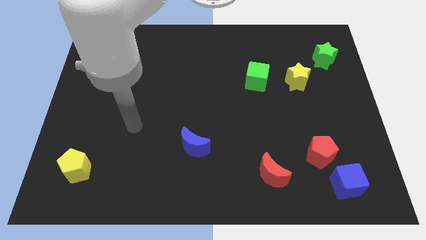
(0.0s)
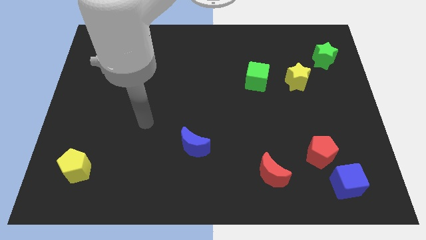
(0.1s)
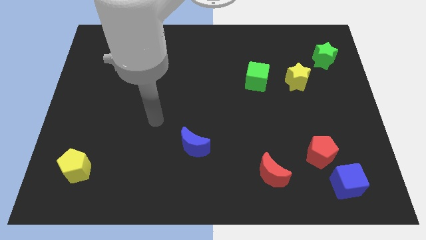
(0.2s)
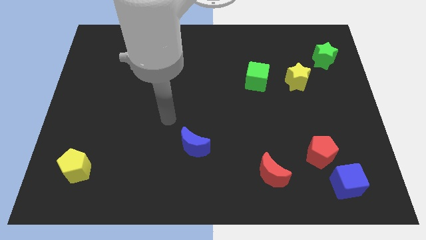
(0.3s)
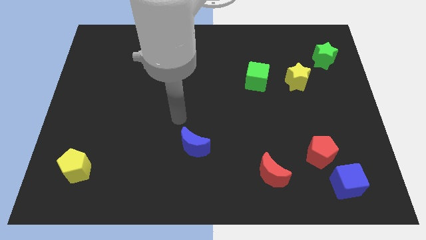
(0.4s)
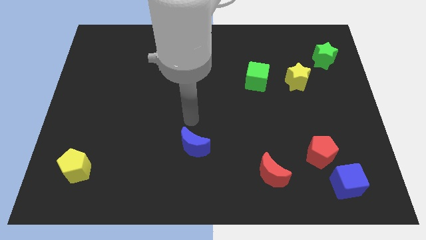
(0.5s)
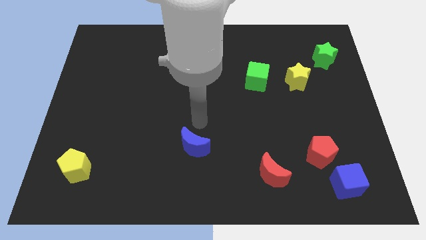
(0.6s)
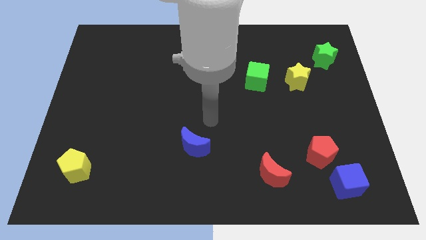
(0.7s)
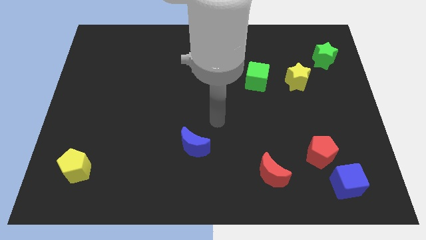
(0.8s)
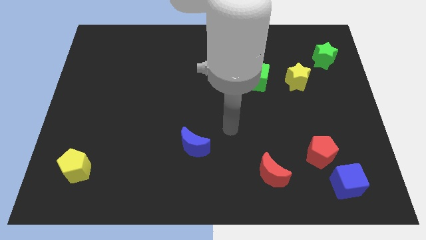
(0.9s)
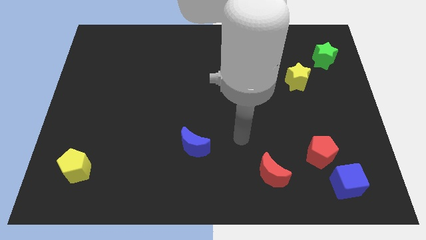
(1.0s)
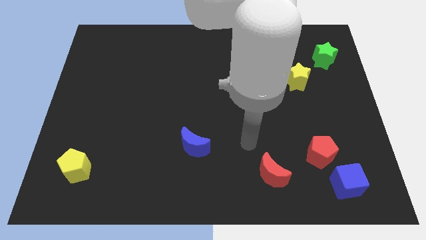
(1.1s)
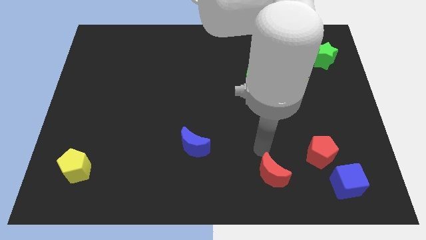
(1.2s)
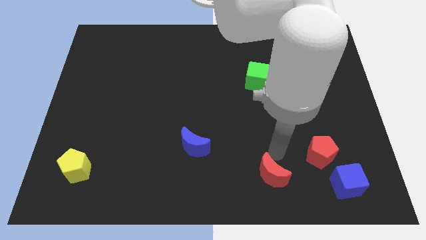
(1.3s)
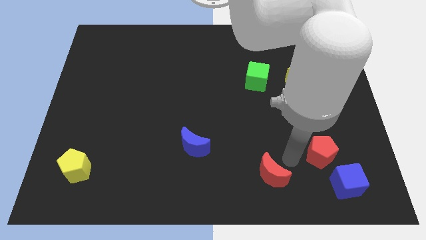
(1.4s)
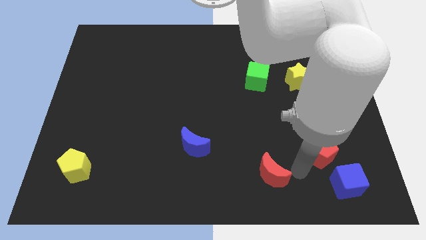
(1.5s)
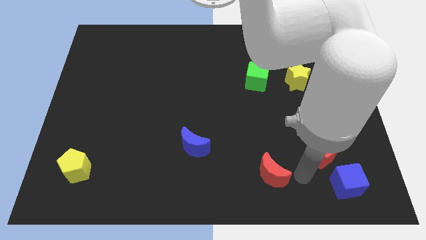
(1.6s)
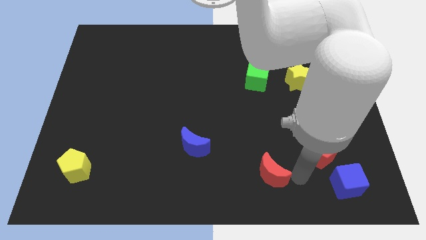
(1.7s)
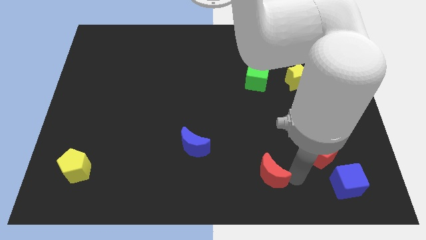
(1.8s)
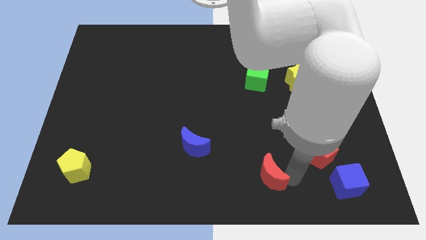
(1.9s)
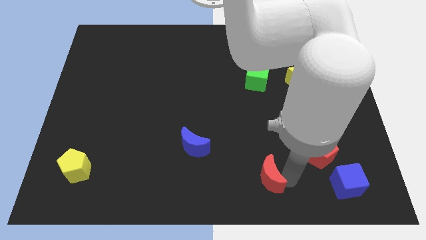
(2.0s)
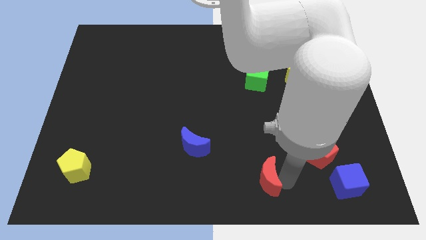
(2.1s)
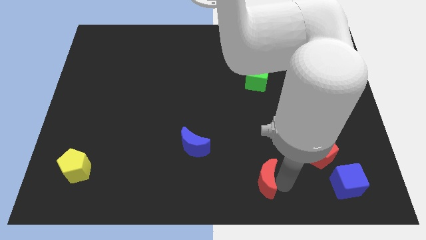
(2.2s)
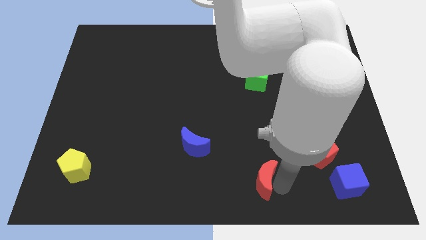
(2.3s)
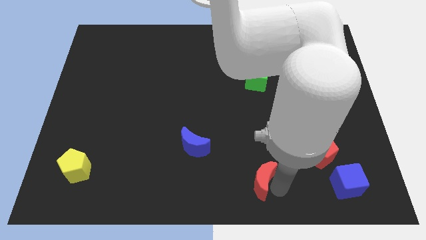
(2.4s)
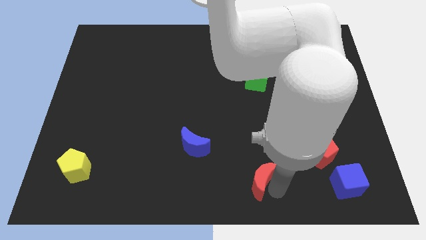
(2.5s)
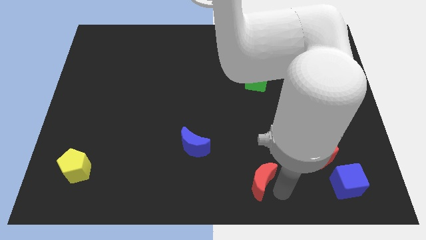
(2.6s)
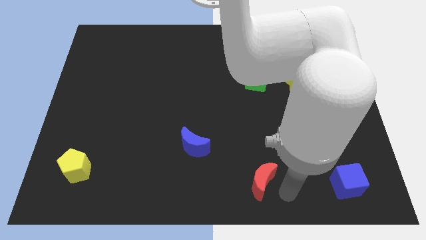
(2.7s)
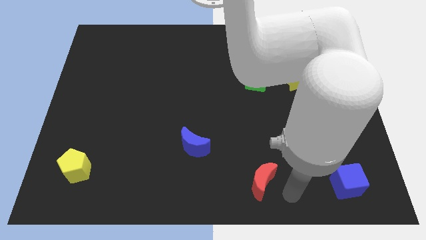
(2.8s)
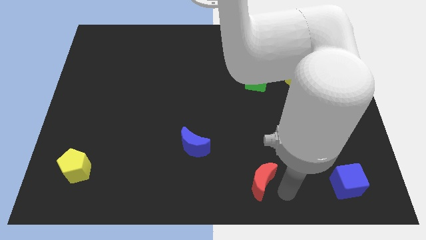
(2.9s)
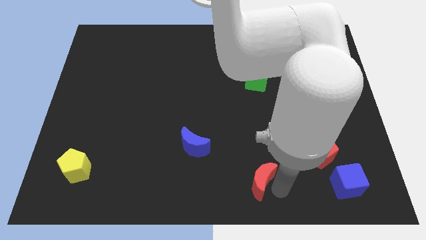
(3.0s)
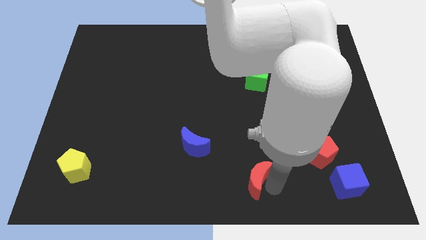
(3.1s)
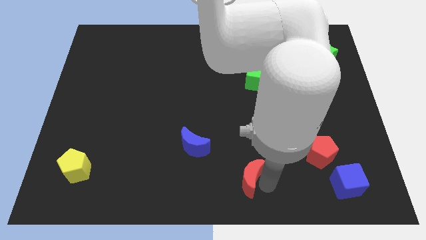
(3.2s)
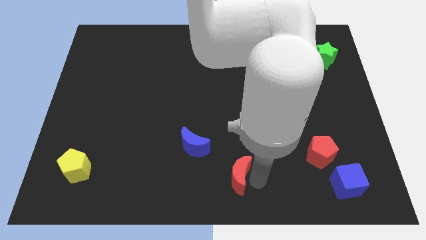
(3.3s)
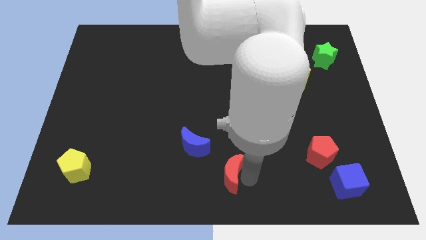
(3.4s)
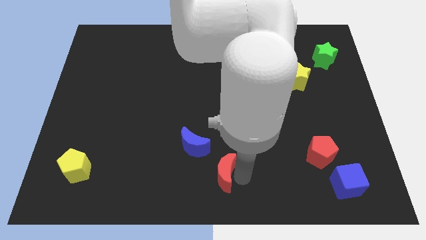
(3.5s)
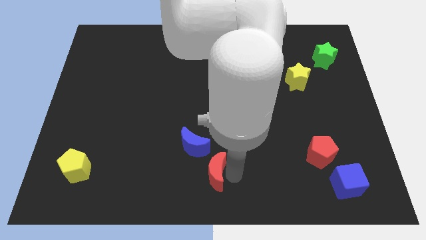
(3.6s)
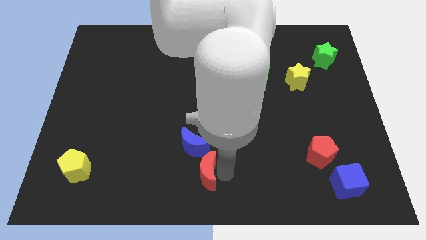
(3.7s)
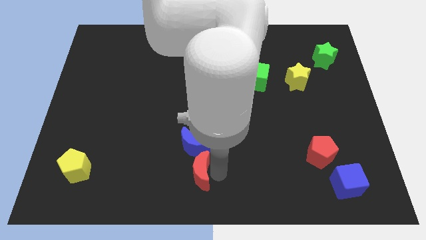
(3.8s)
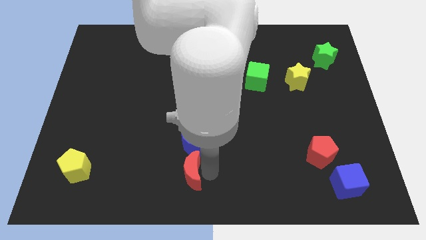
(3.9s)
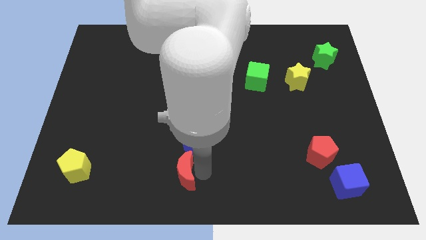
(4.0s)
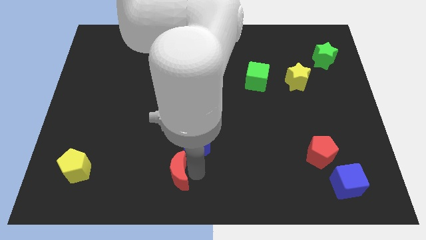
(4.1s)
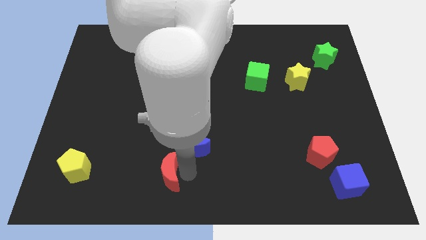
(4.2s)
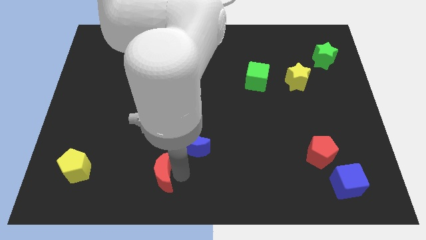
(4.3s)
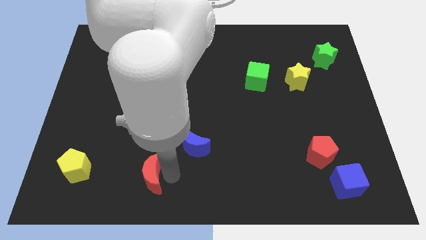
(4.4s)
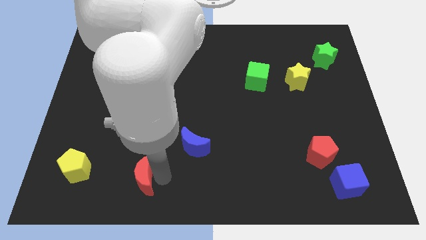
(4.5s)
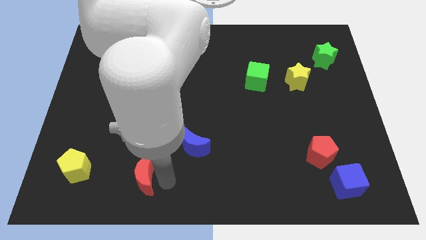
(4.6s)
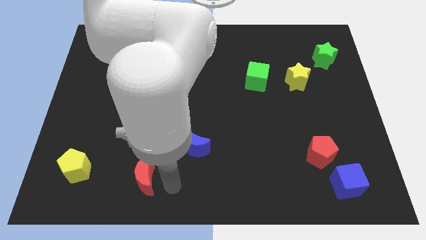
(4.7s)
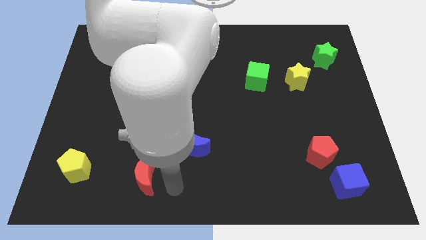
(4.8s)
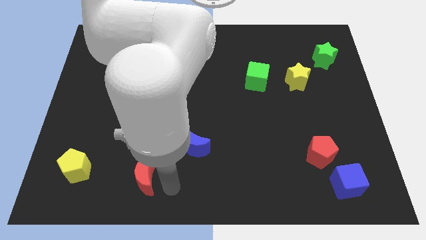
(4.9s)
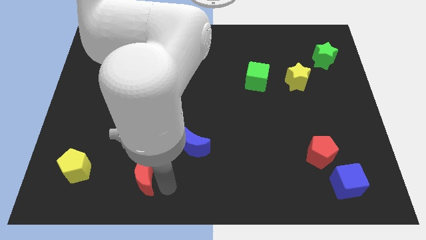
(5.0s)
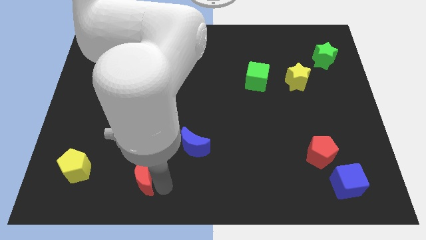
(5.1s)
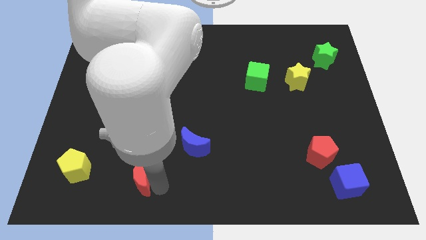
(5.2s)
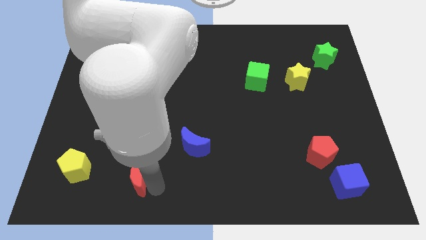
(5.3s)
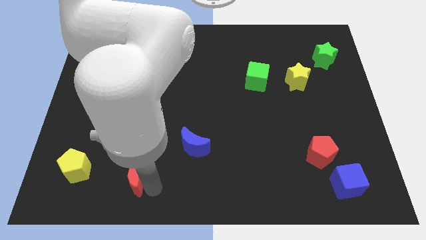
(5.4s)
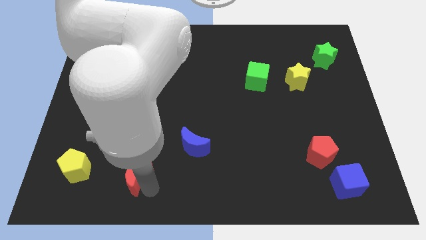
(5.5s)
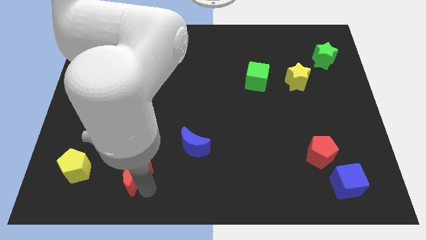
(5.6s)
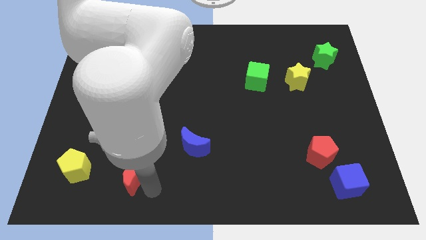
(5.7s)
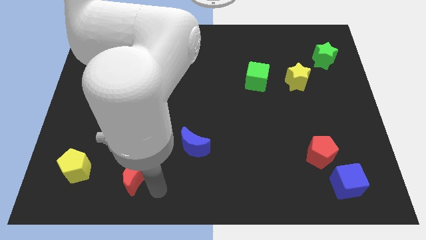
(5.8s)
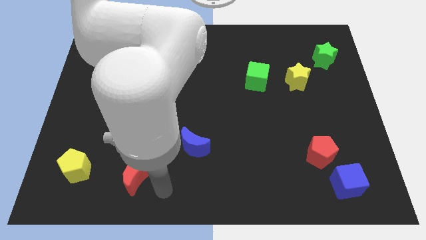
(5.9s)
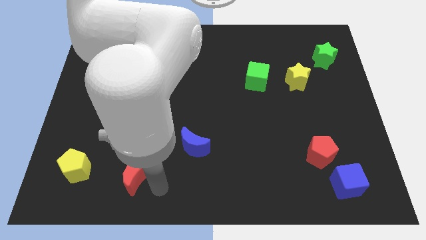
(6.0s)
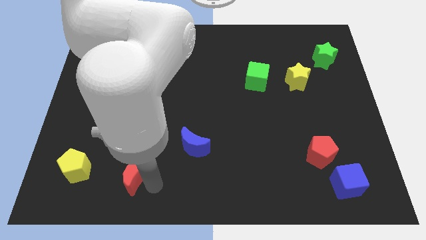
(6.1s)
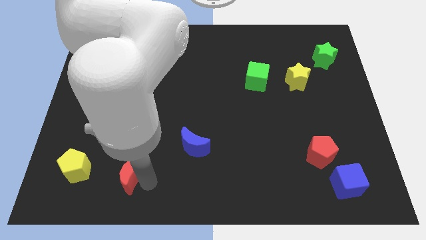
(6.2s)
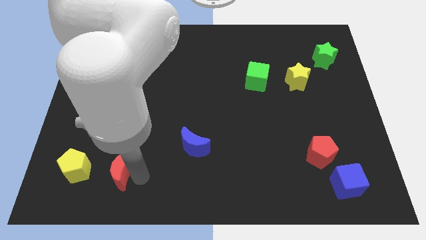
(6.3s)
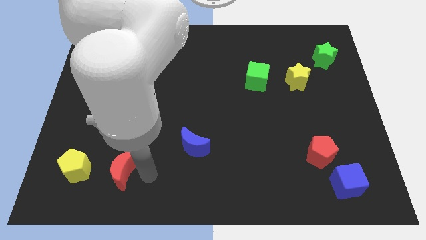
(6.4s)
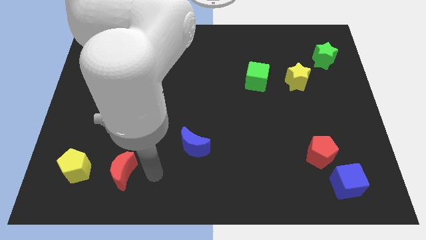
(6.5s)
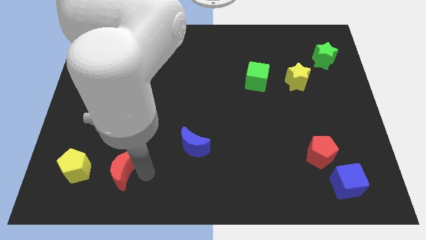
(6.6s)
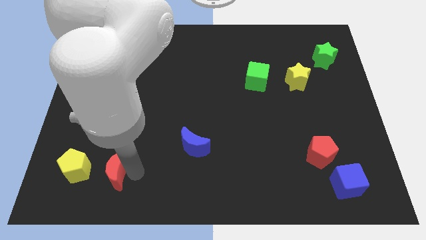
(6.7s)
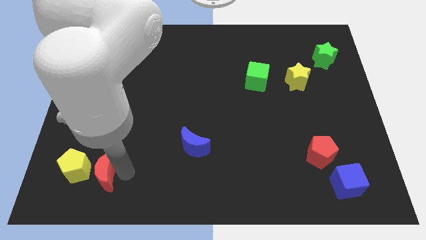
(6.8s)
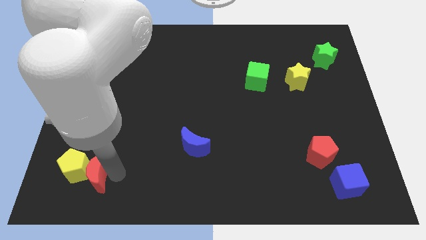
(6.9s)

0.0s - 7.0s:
slide the red moon towards the yellow pentagon
